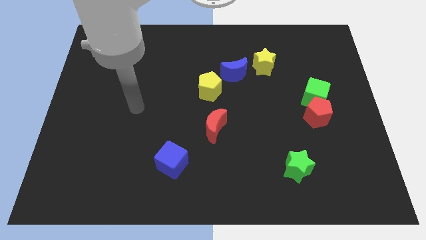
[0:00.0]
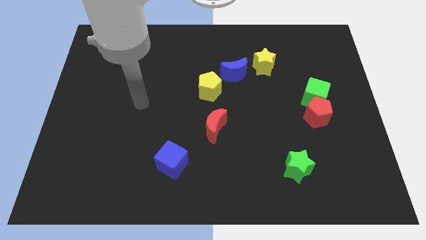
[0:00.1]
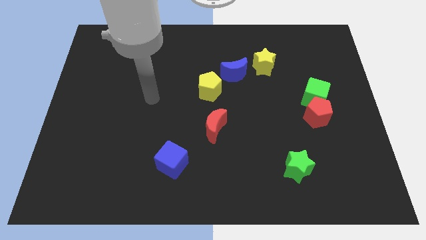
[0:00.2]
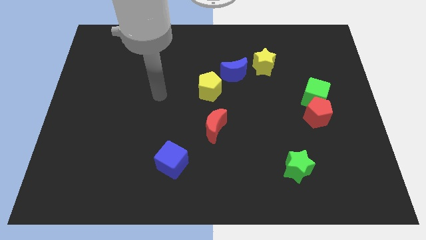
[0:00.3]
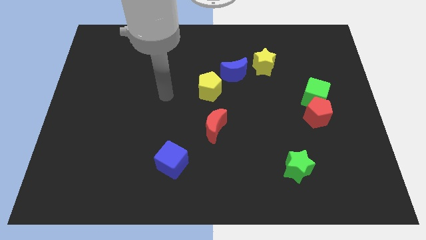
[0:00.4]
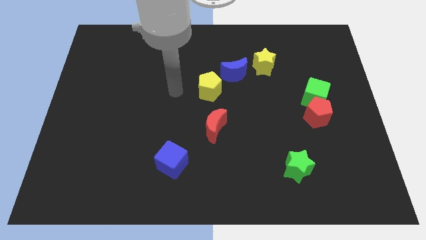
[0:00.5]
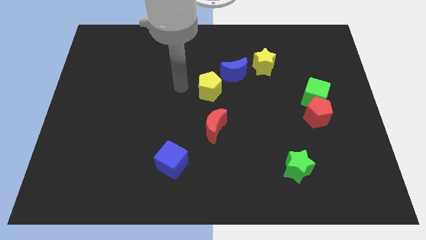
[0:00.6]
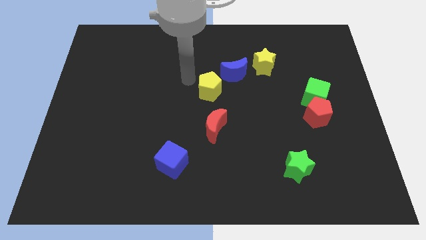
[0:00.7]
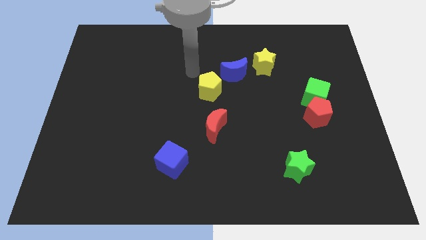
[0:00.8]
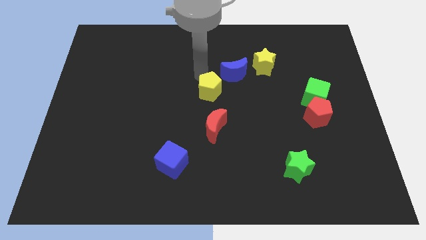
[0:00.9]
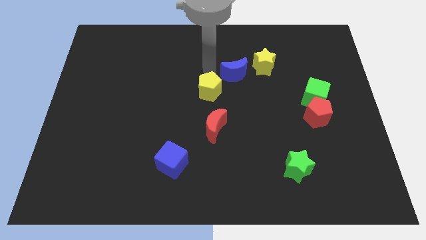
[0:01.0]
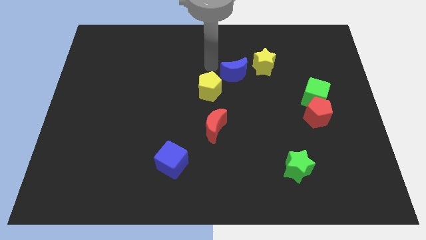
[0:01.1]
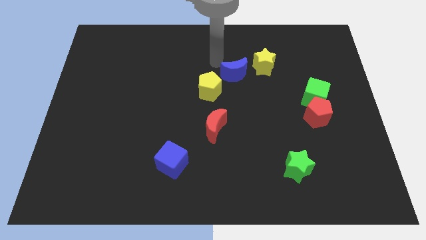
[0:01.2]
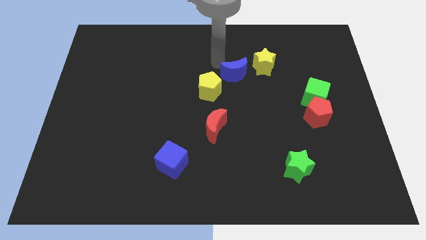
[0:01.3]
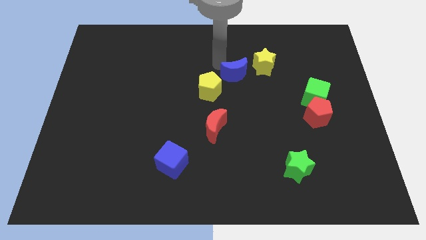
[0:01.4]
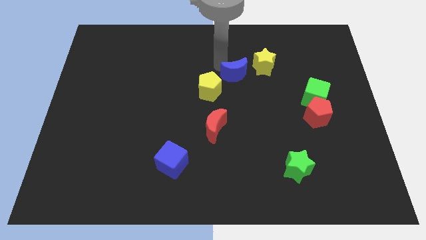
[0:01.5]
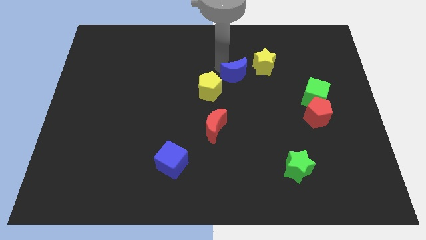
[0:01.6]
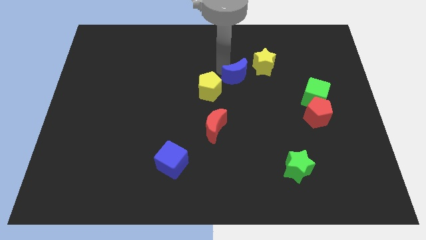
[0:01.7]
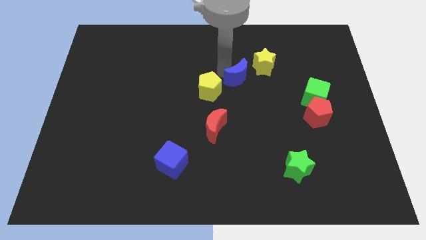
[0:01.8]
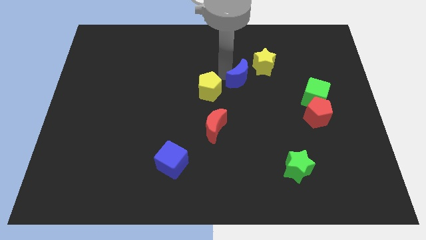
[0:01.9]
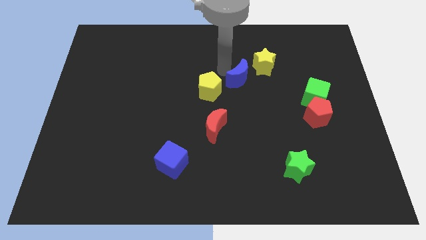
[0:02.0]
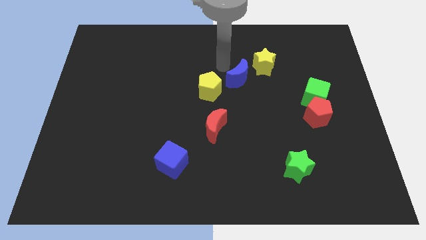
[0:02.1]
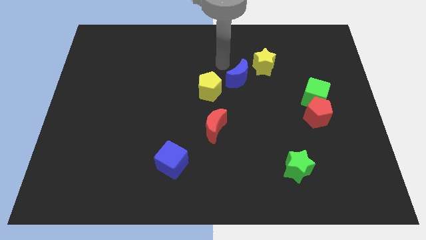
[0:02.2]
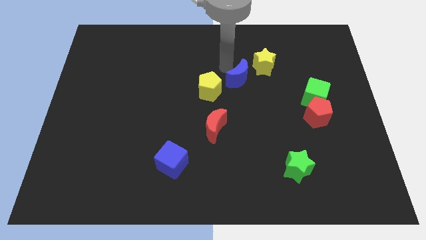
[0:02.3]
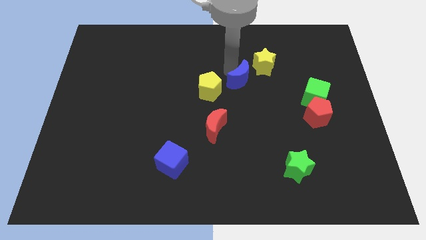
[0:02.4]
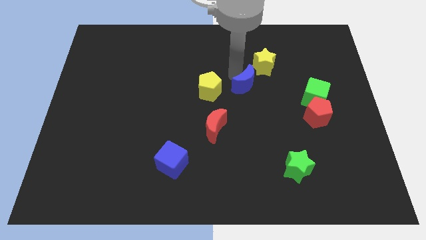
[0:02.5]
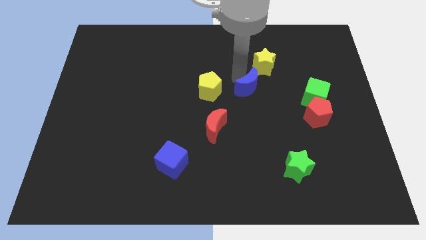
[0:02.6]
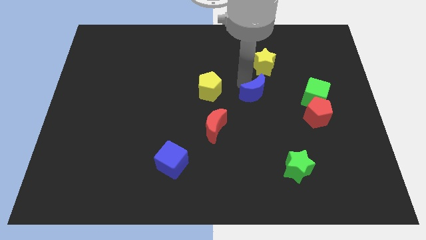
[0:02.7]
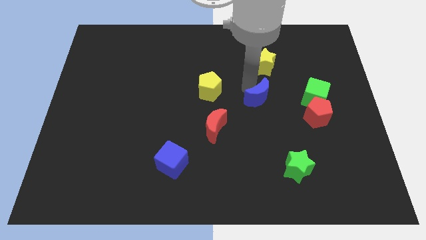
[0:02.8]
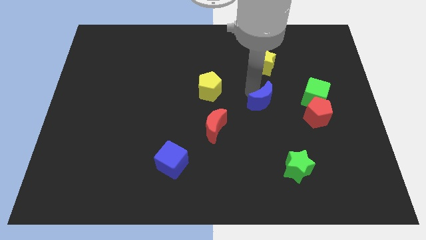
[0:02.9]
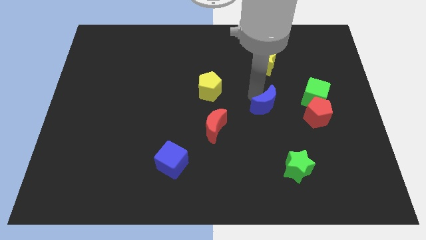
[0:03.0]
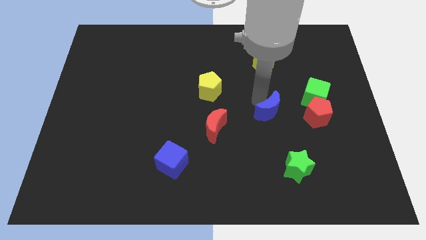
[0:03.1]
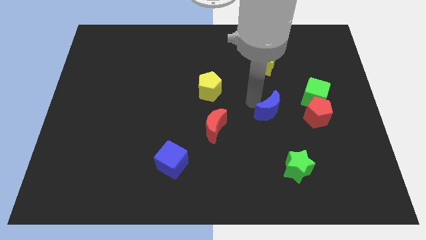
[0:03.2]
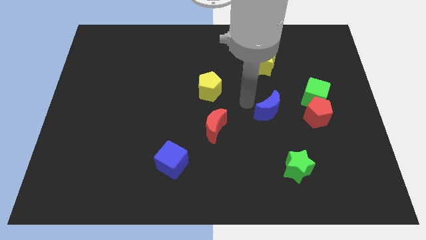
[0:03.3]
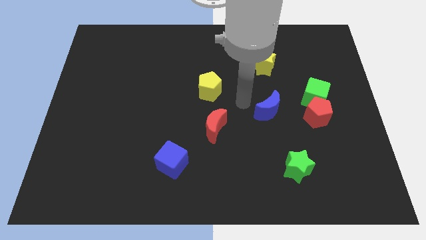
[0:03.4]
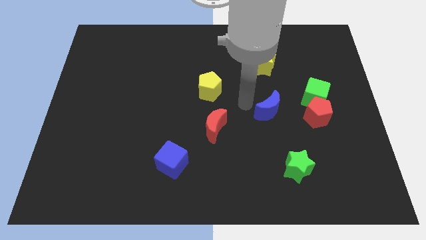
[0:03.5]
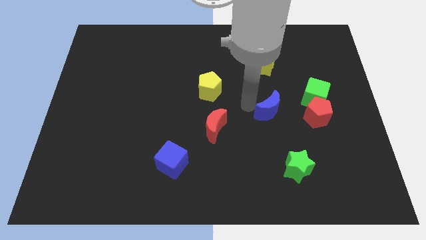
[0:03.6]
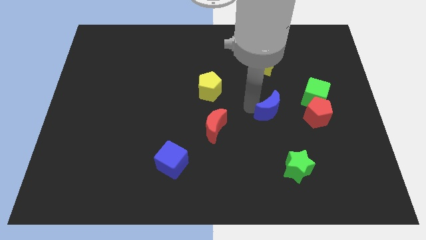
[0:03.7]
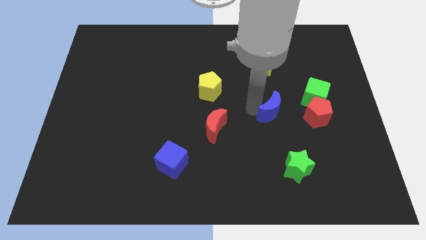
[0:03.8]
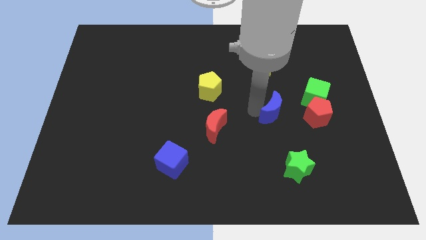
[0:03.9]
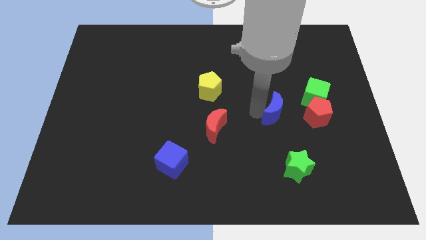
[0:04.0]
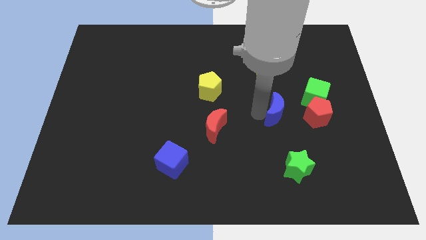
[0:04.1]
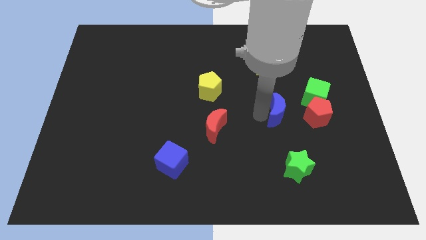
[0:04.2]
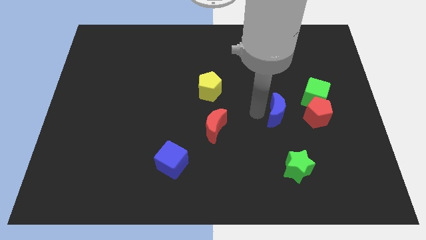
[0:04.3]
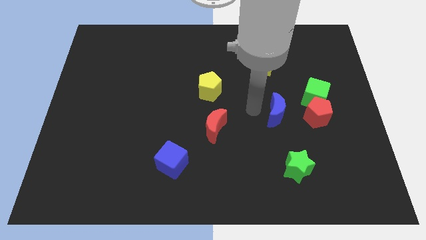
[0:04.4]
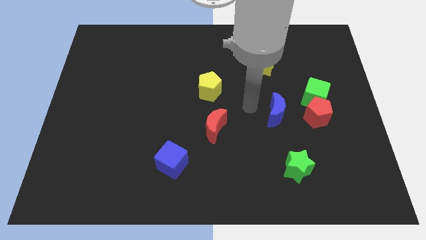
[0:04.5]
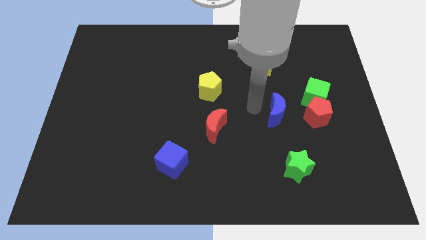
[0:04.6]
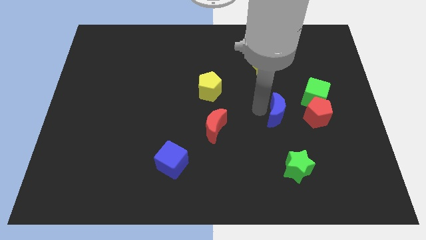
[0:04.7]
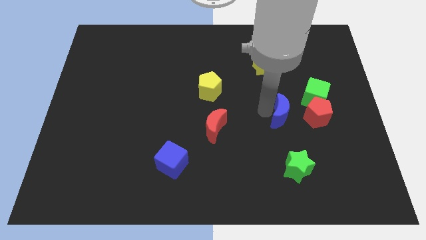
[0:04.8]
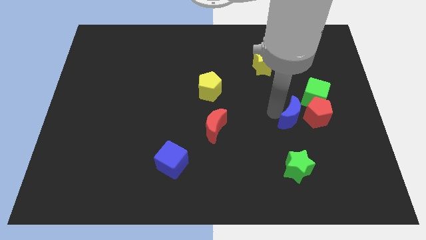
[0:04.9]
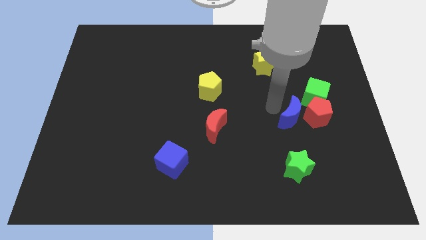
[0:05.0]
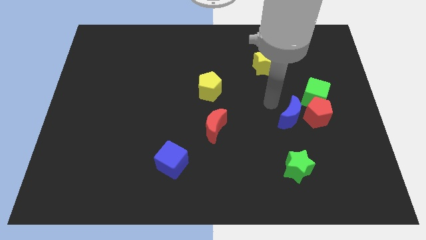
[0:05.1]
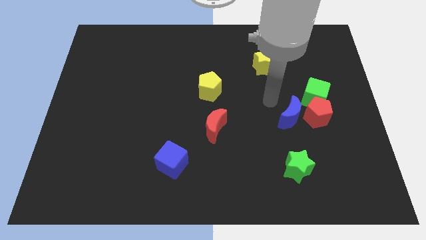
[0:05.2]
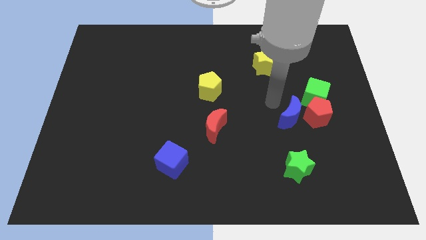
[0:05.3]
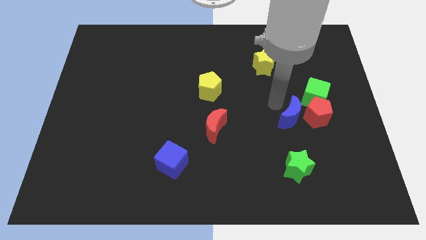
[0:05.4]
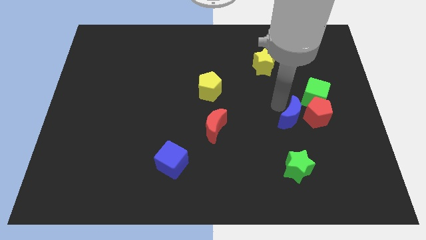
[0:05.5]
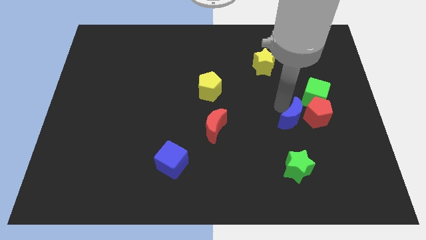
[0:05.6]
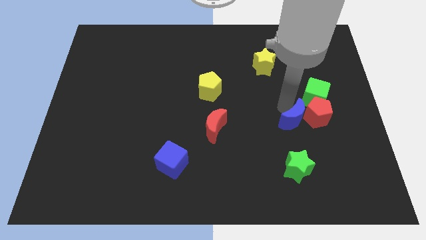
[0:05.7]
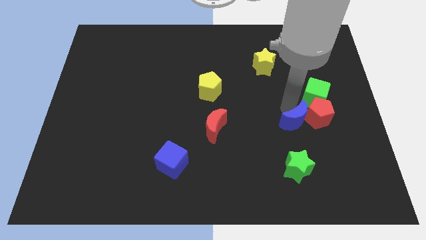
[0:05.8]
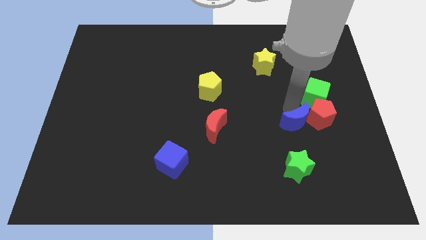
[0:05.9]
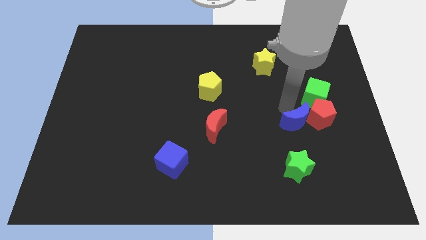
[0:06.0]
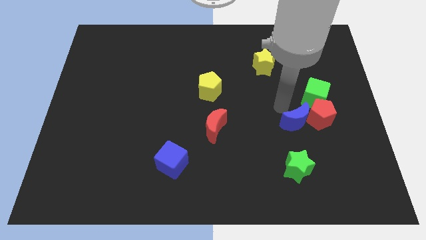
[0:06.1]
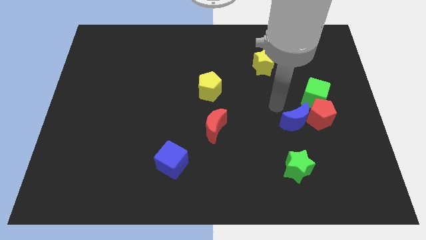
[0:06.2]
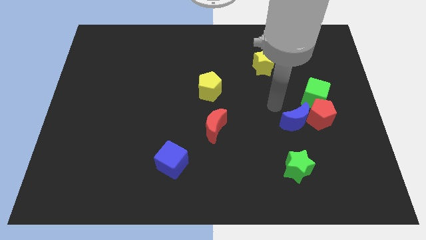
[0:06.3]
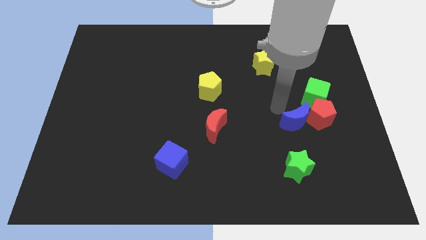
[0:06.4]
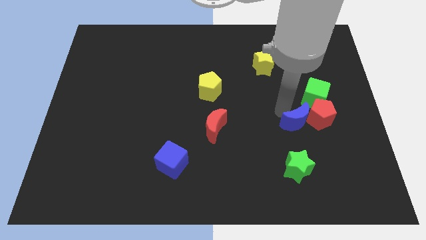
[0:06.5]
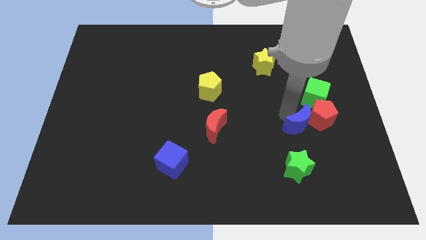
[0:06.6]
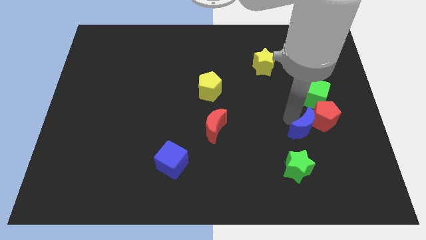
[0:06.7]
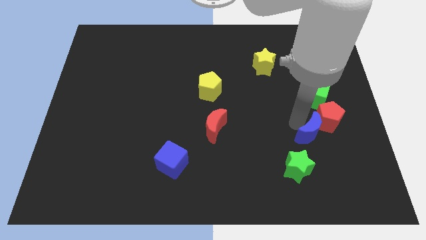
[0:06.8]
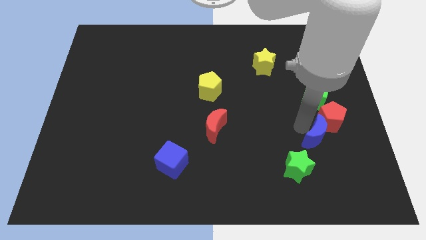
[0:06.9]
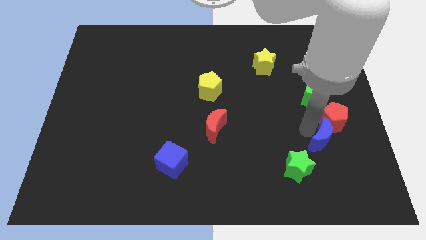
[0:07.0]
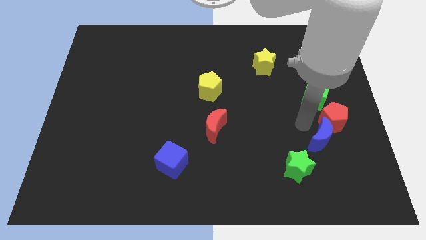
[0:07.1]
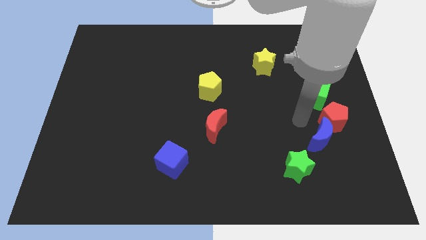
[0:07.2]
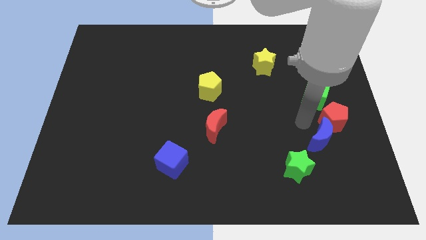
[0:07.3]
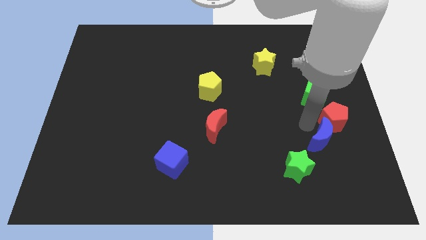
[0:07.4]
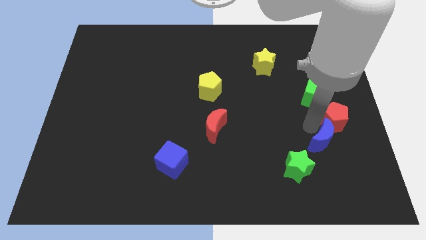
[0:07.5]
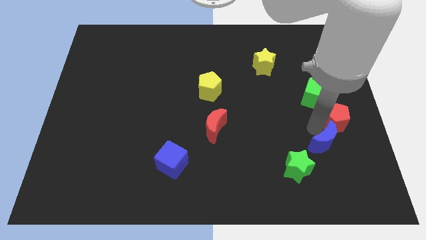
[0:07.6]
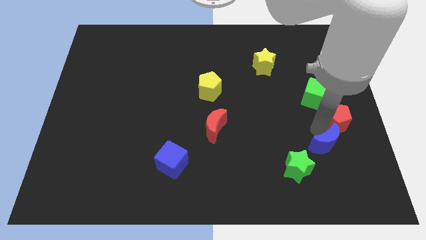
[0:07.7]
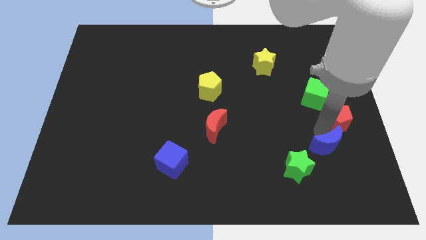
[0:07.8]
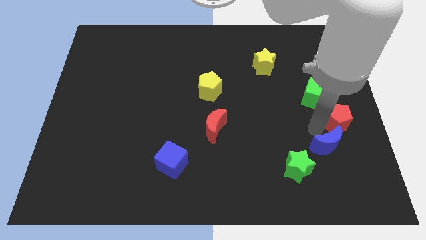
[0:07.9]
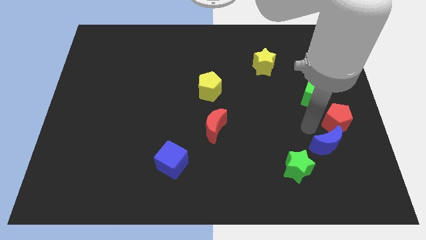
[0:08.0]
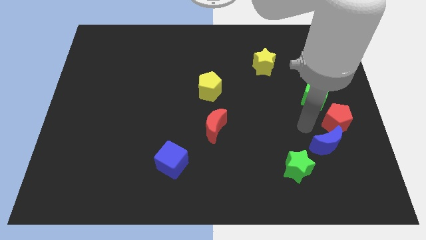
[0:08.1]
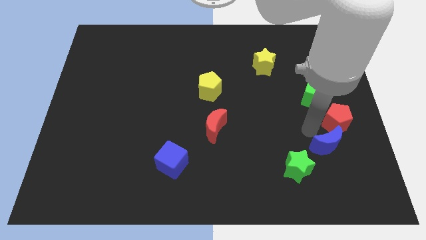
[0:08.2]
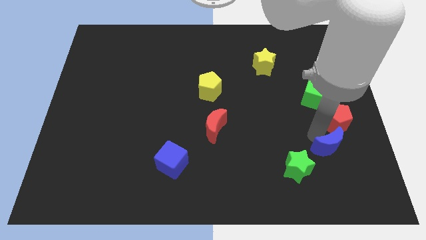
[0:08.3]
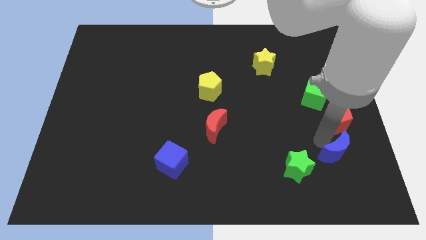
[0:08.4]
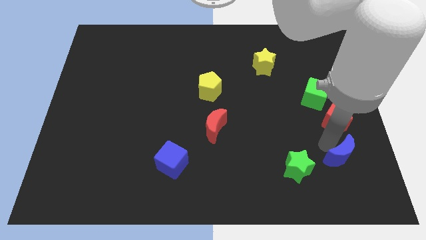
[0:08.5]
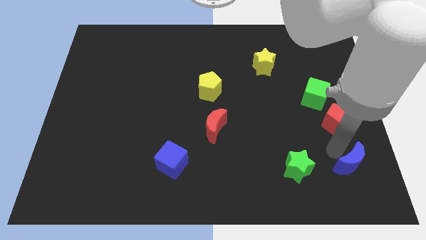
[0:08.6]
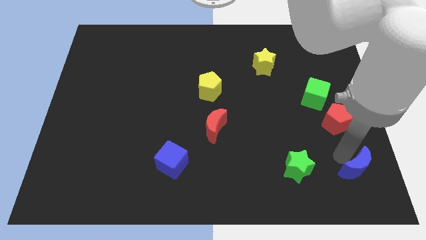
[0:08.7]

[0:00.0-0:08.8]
slide the blue moon to the bottom right corner
